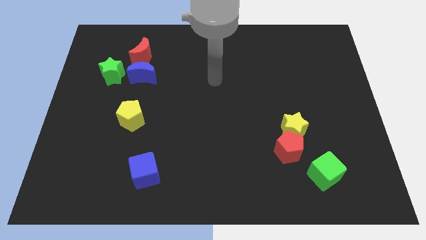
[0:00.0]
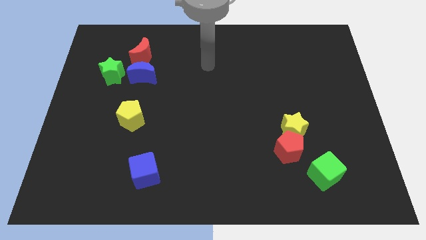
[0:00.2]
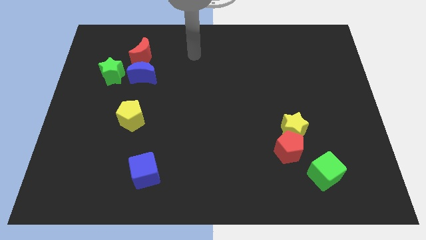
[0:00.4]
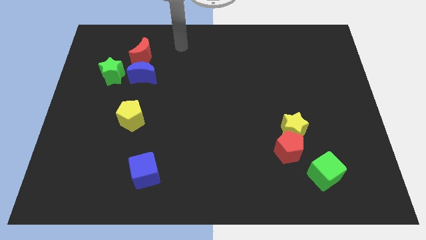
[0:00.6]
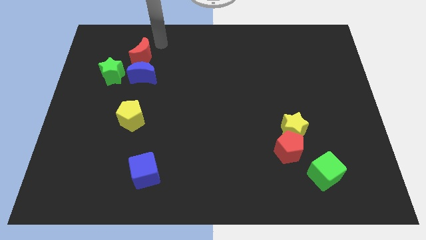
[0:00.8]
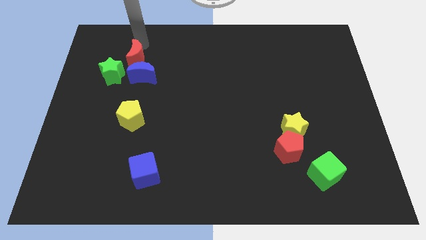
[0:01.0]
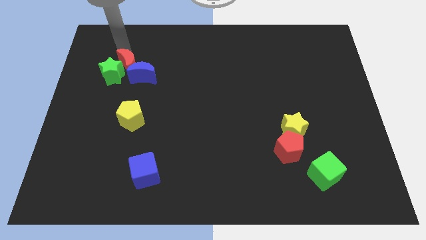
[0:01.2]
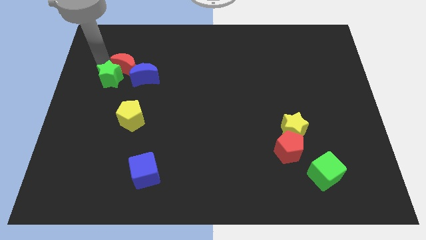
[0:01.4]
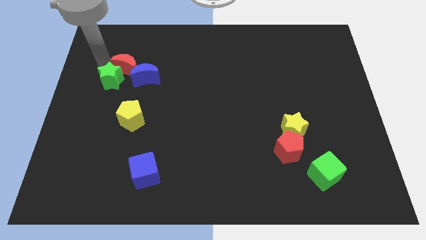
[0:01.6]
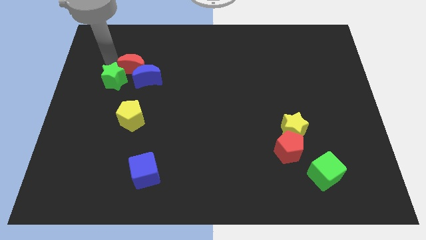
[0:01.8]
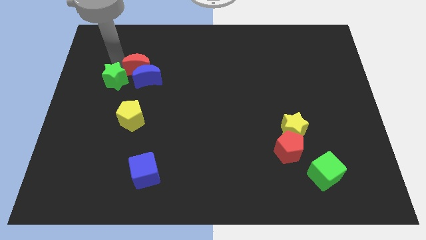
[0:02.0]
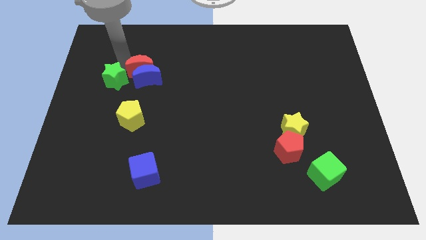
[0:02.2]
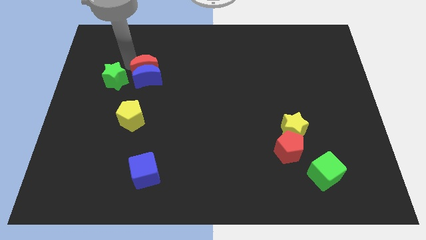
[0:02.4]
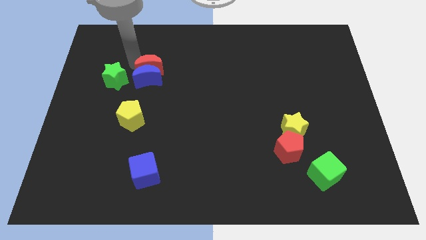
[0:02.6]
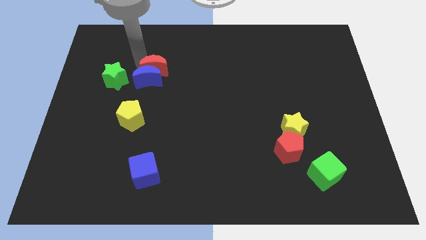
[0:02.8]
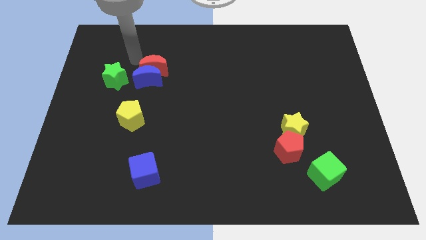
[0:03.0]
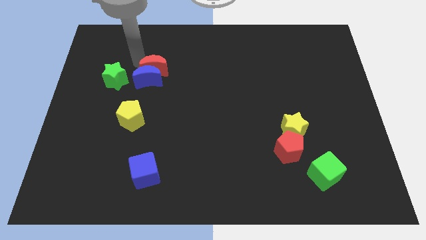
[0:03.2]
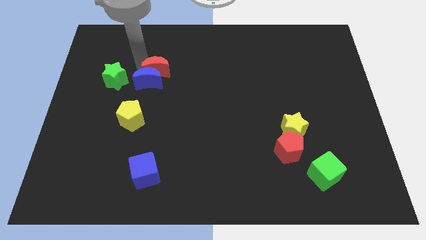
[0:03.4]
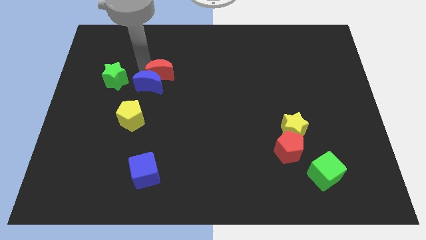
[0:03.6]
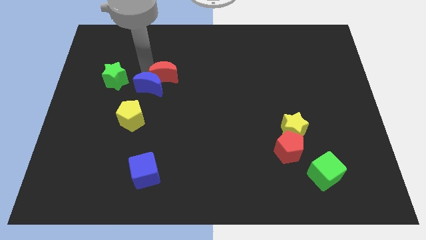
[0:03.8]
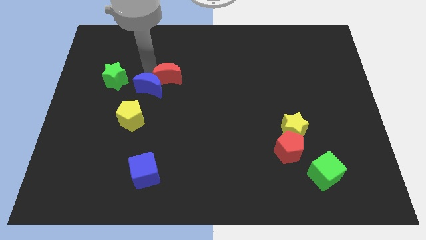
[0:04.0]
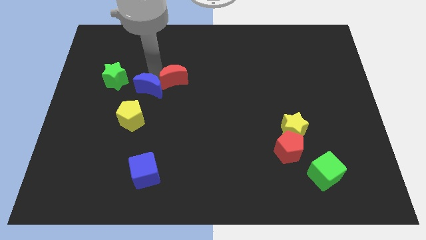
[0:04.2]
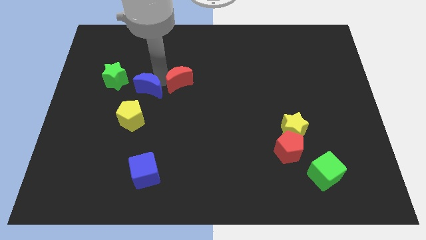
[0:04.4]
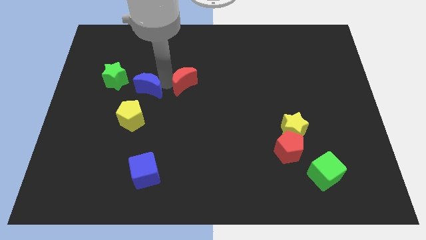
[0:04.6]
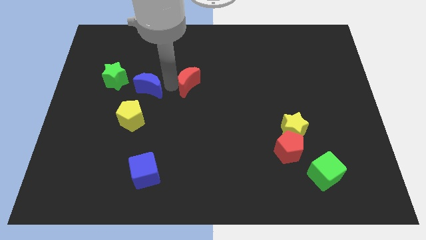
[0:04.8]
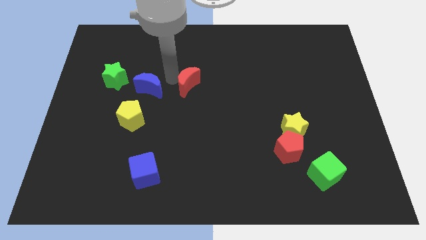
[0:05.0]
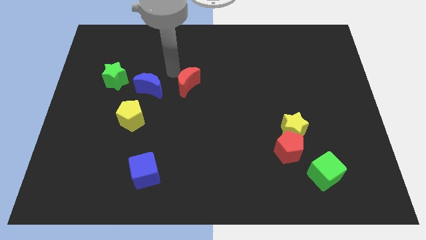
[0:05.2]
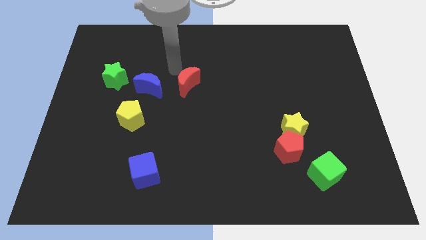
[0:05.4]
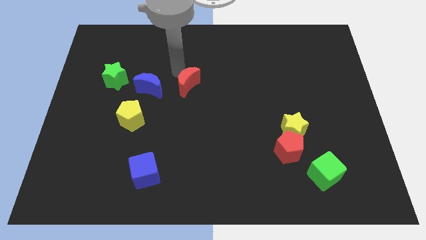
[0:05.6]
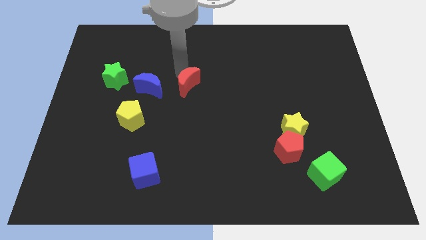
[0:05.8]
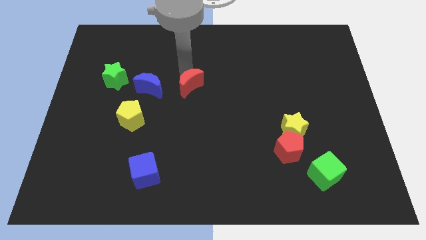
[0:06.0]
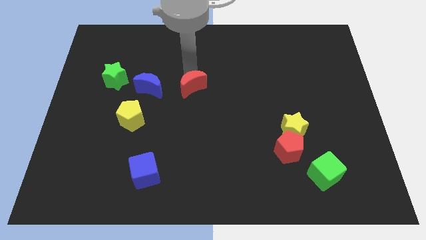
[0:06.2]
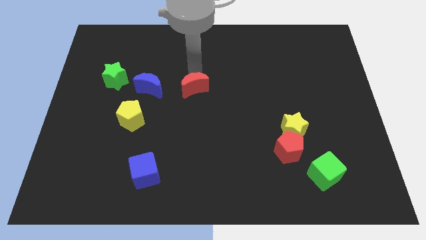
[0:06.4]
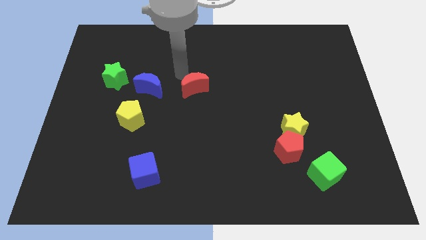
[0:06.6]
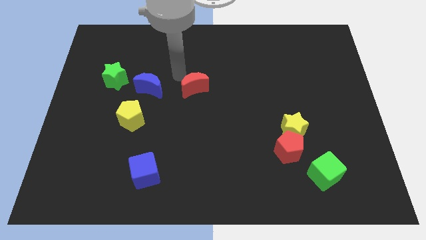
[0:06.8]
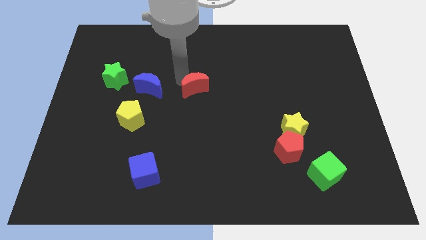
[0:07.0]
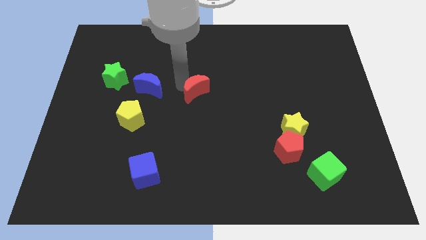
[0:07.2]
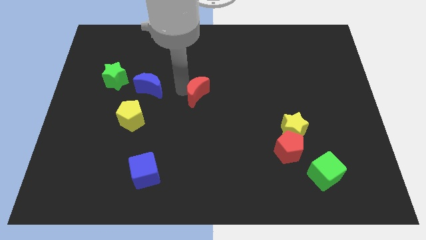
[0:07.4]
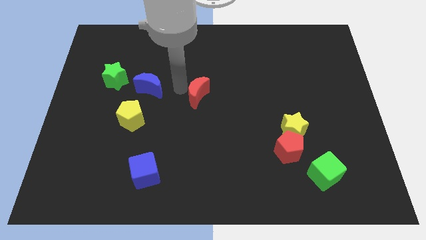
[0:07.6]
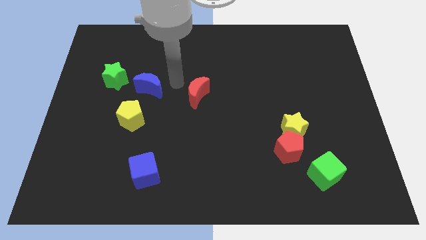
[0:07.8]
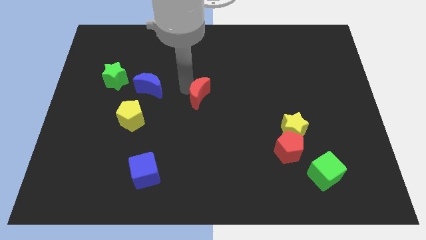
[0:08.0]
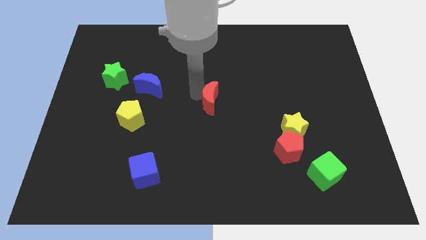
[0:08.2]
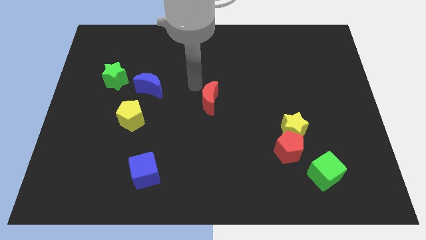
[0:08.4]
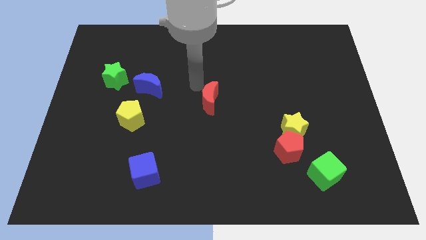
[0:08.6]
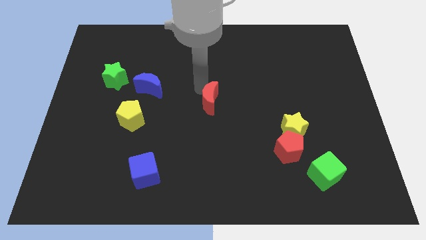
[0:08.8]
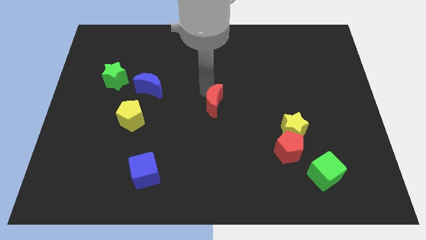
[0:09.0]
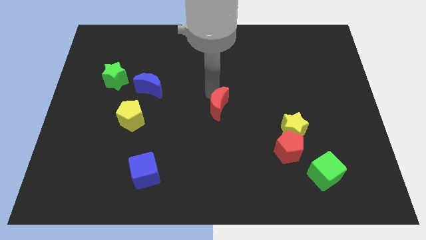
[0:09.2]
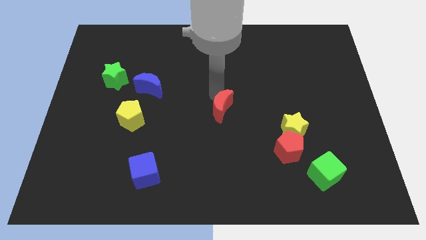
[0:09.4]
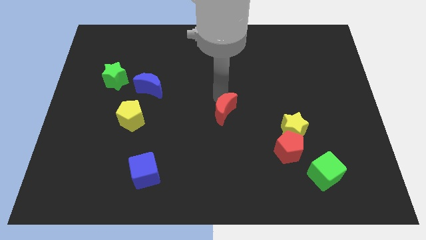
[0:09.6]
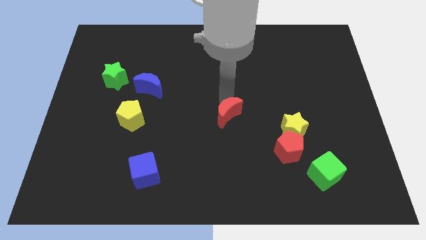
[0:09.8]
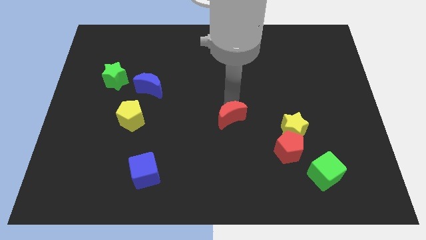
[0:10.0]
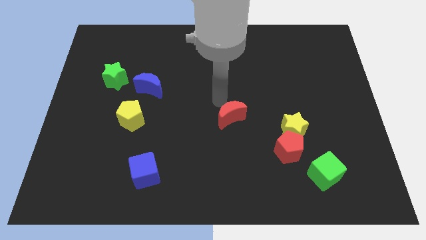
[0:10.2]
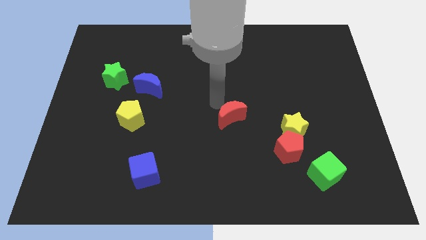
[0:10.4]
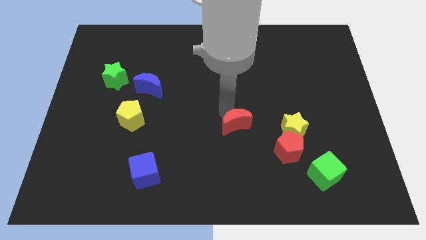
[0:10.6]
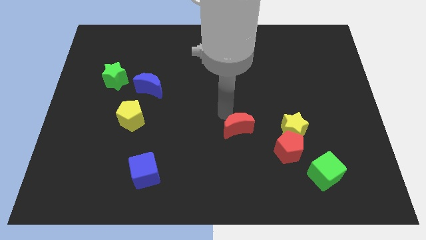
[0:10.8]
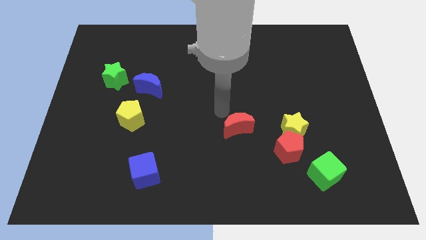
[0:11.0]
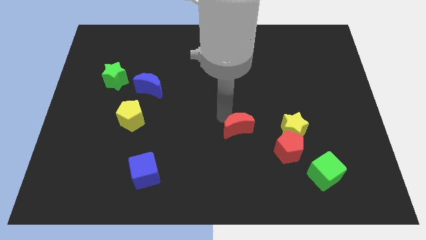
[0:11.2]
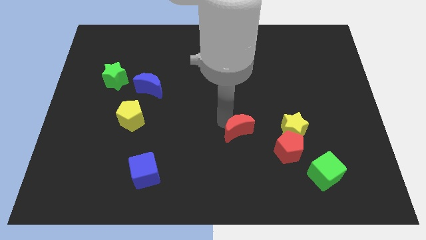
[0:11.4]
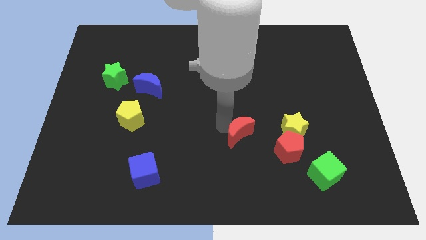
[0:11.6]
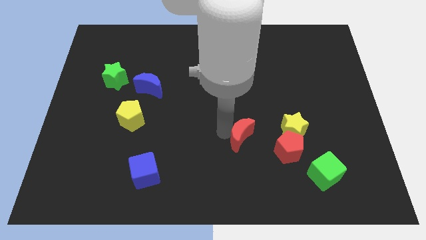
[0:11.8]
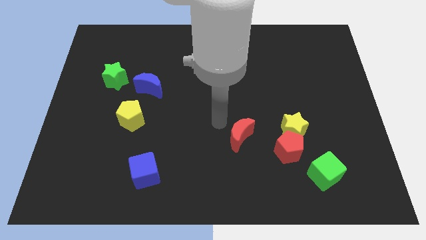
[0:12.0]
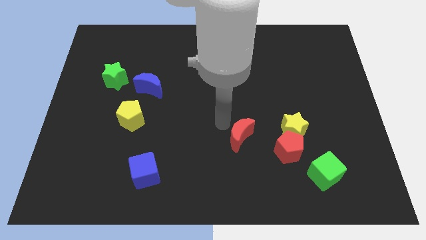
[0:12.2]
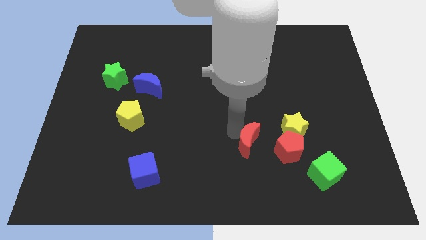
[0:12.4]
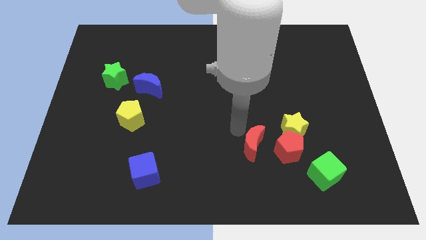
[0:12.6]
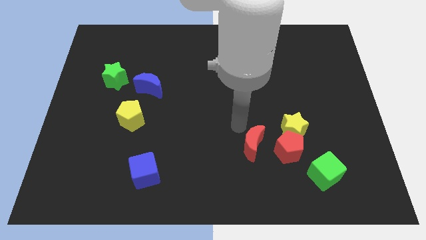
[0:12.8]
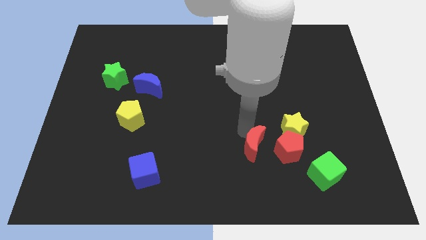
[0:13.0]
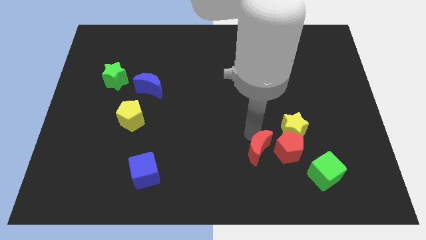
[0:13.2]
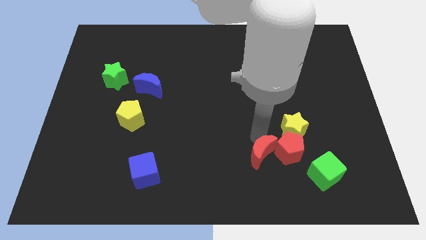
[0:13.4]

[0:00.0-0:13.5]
put the red moon left of the green cube
